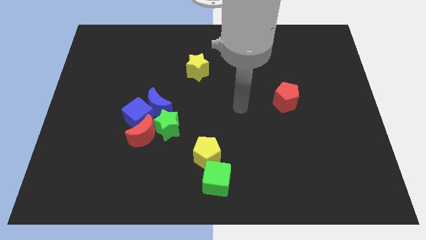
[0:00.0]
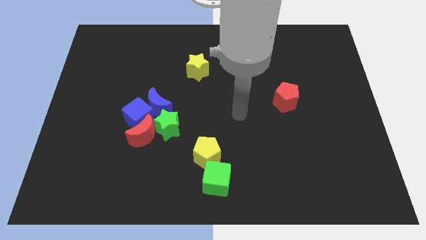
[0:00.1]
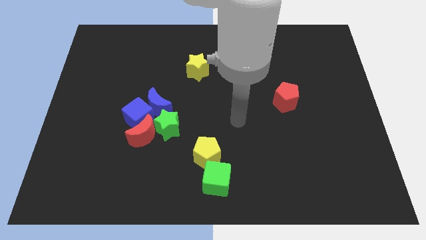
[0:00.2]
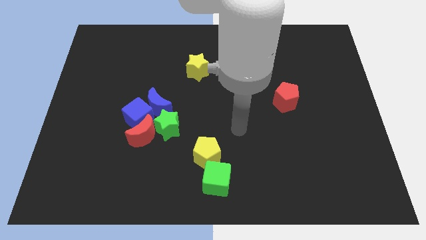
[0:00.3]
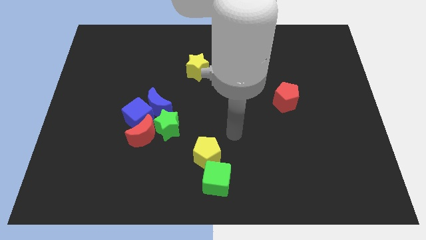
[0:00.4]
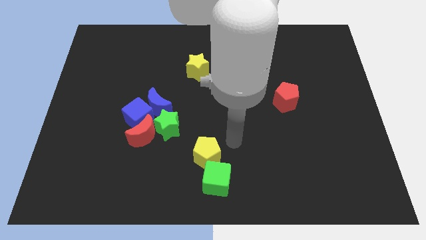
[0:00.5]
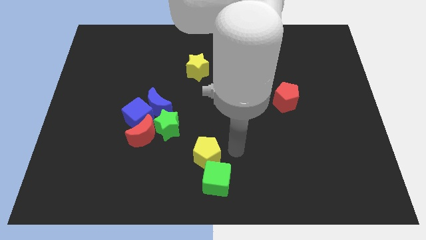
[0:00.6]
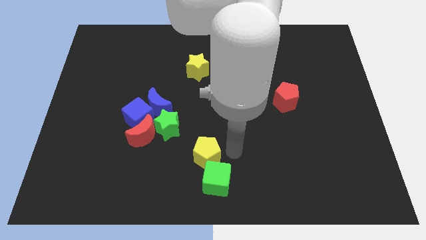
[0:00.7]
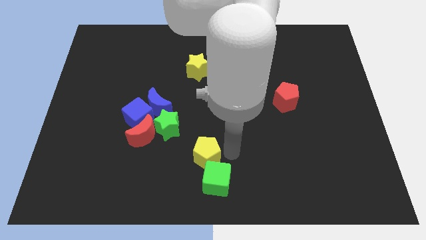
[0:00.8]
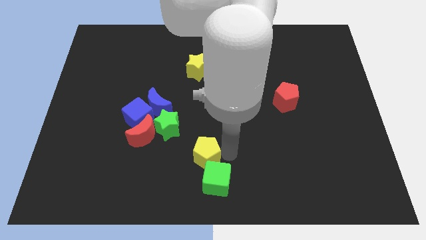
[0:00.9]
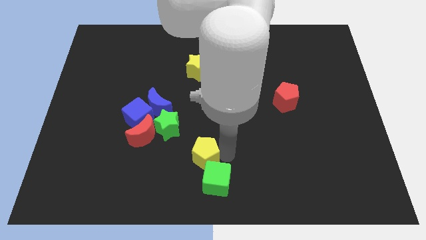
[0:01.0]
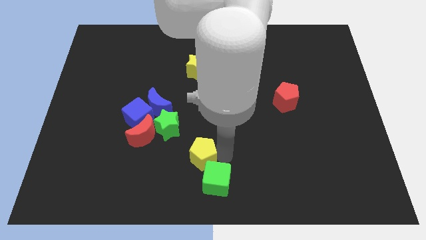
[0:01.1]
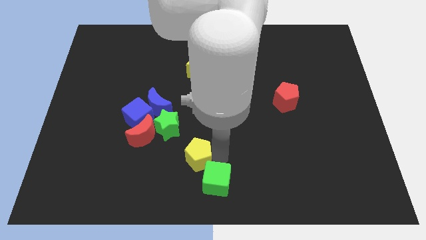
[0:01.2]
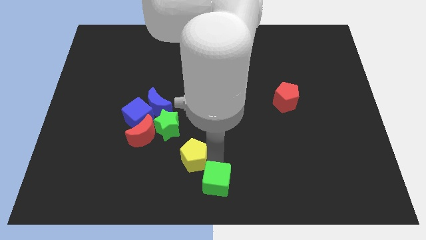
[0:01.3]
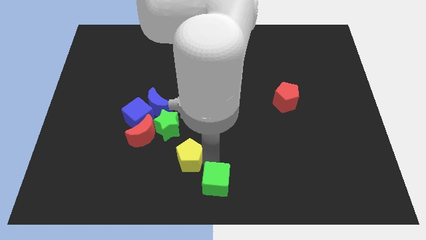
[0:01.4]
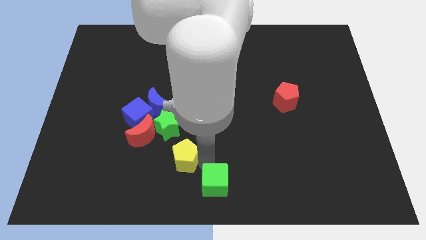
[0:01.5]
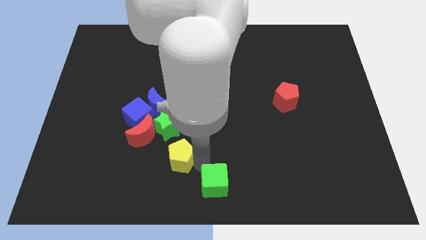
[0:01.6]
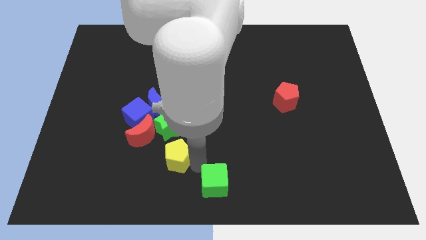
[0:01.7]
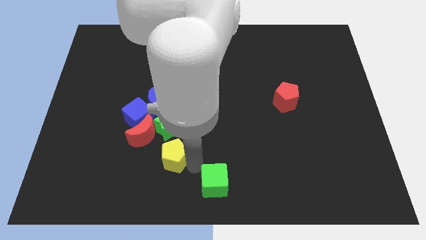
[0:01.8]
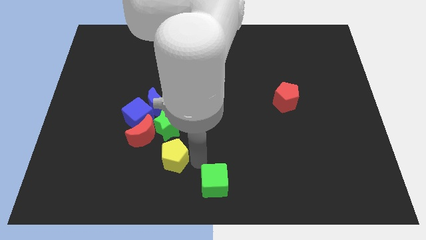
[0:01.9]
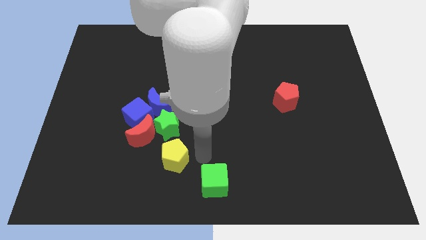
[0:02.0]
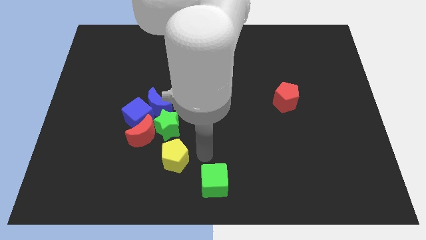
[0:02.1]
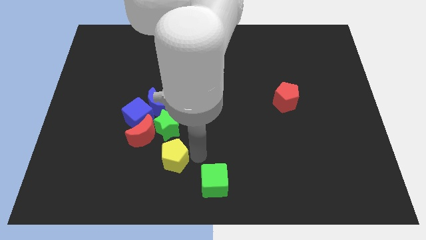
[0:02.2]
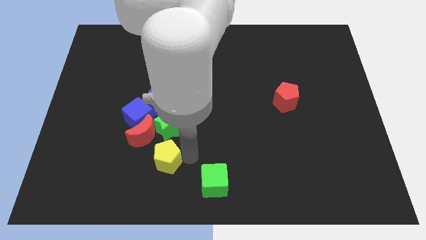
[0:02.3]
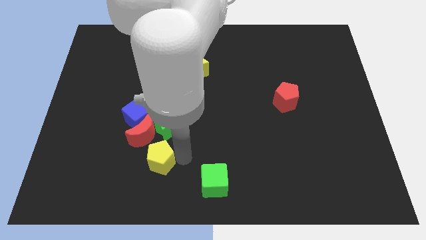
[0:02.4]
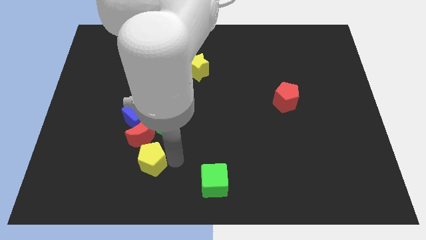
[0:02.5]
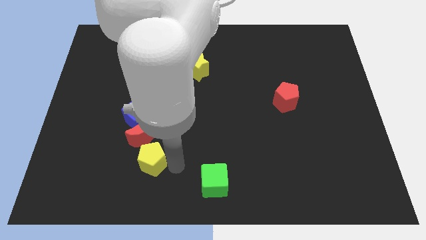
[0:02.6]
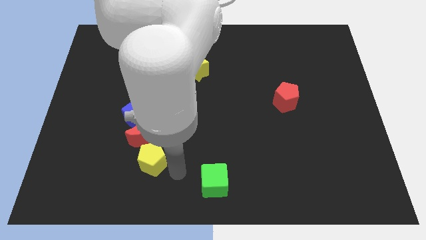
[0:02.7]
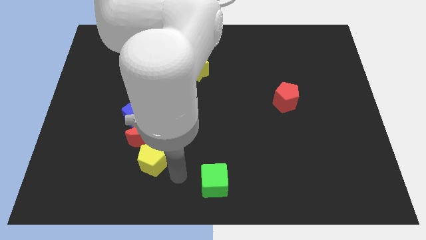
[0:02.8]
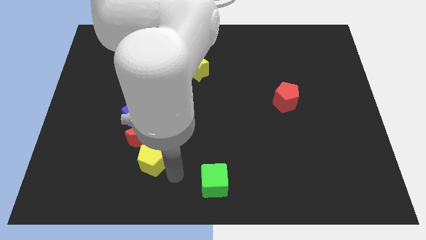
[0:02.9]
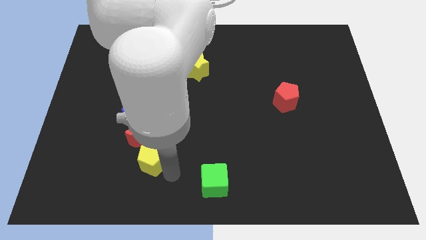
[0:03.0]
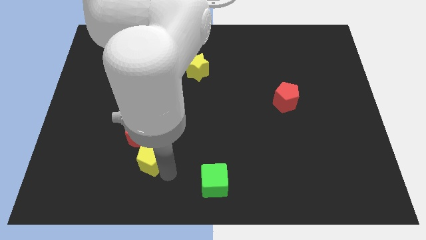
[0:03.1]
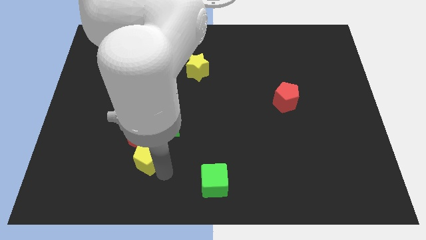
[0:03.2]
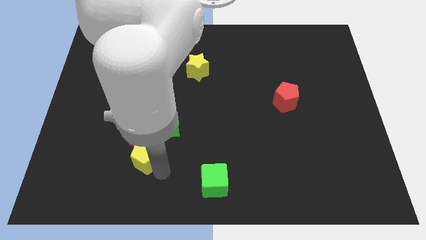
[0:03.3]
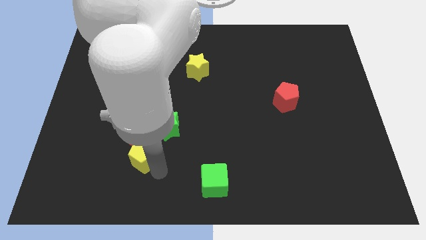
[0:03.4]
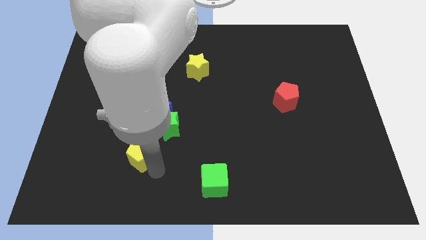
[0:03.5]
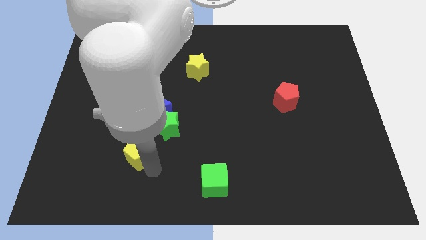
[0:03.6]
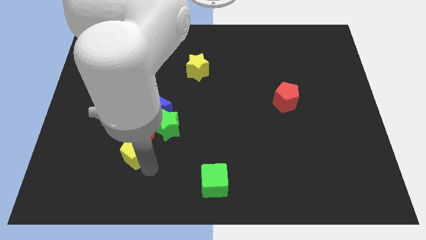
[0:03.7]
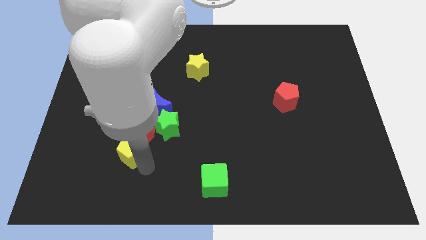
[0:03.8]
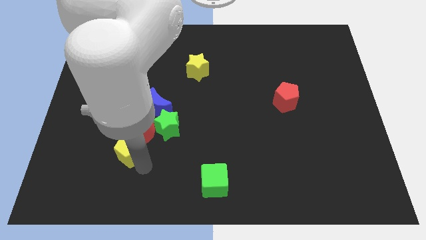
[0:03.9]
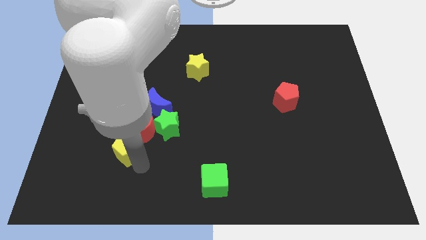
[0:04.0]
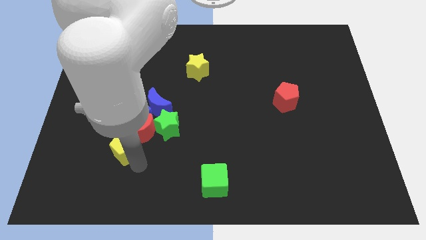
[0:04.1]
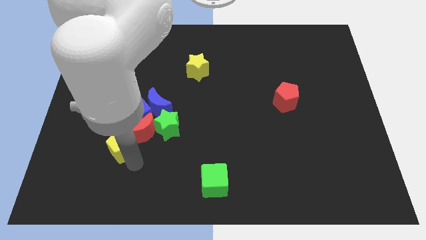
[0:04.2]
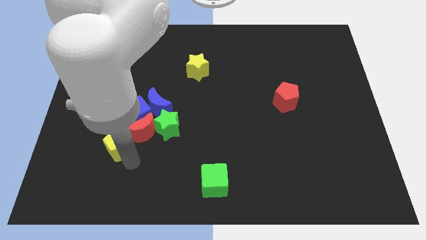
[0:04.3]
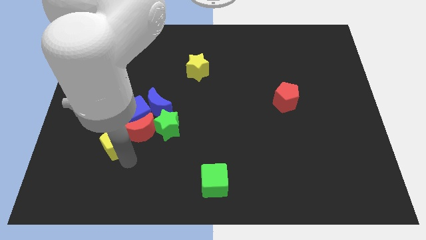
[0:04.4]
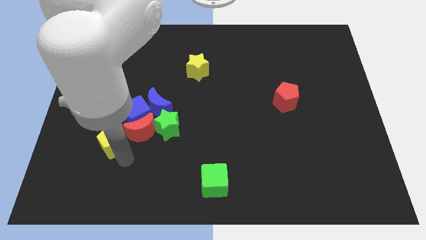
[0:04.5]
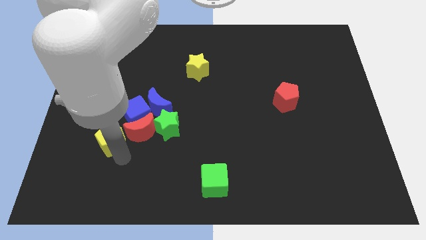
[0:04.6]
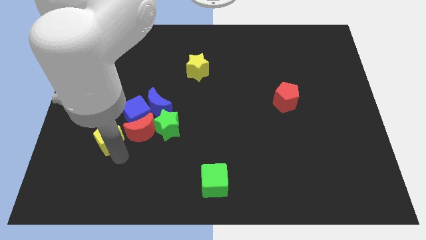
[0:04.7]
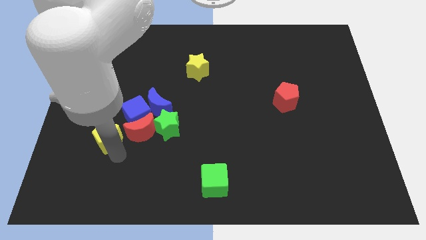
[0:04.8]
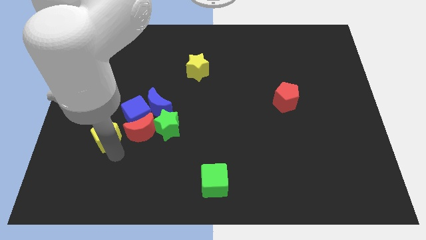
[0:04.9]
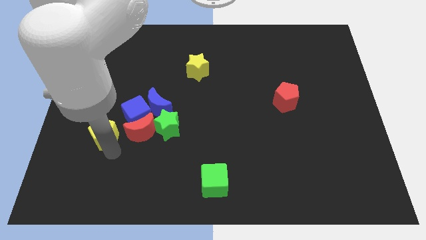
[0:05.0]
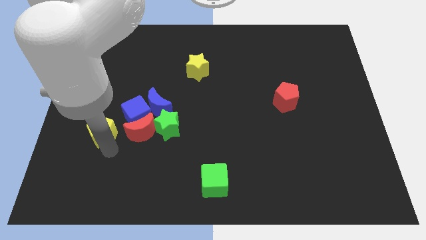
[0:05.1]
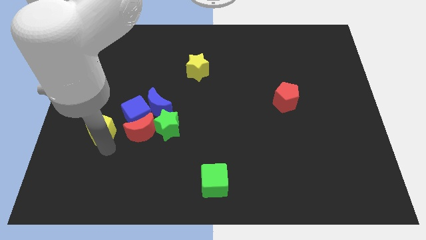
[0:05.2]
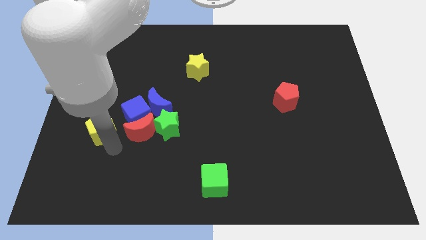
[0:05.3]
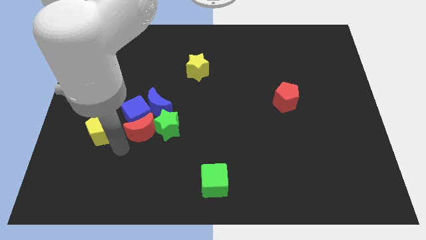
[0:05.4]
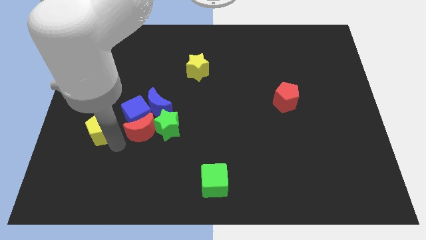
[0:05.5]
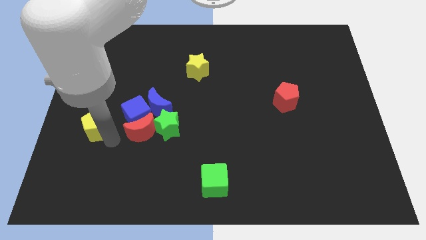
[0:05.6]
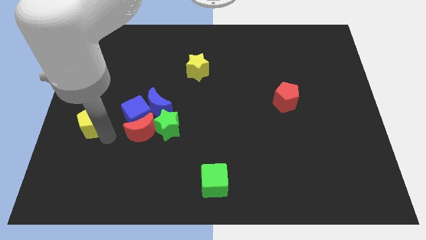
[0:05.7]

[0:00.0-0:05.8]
push the yellow pentagon to the center left

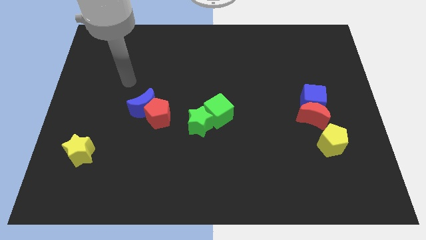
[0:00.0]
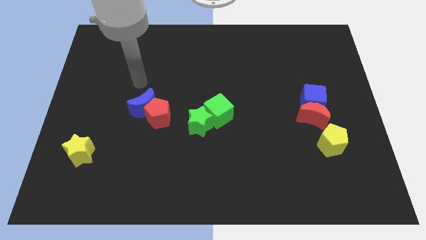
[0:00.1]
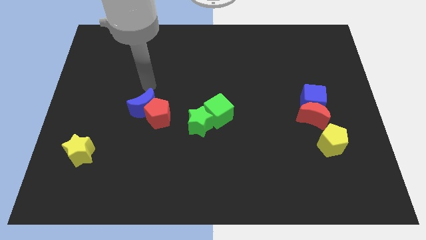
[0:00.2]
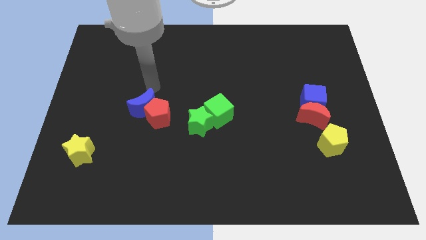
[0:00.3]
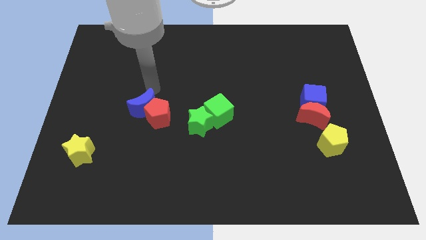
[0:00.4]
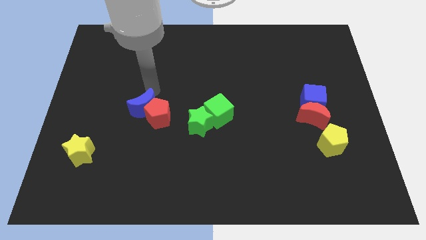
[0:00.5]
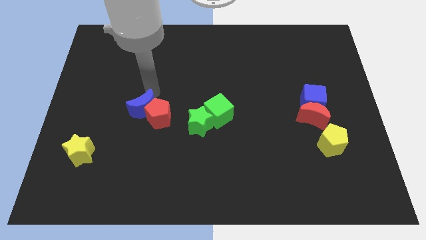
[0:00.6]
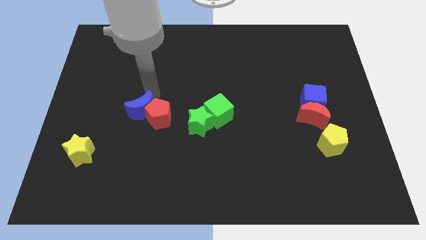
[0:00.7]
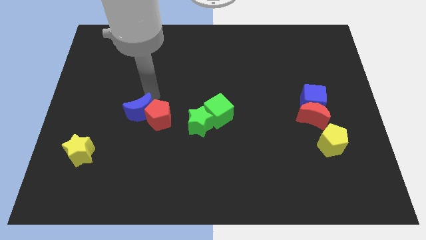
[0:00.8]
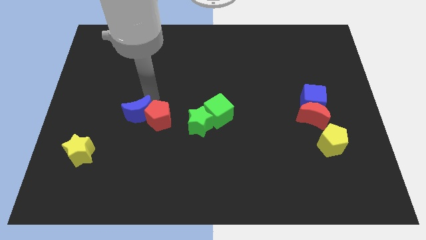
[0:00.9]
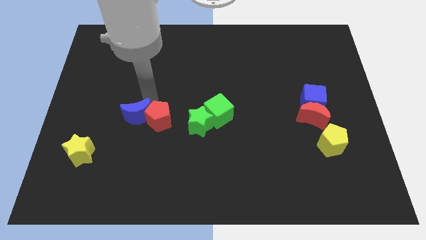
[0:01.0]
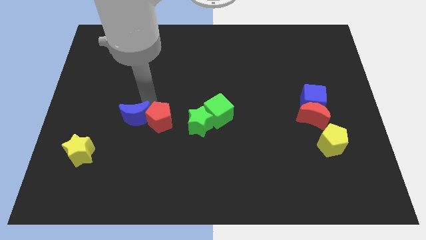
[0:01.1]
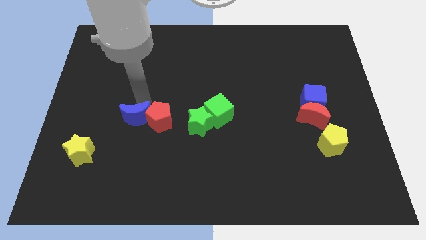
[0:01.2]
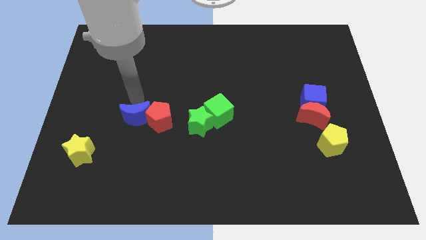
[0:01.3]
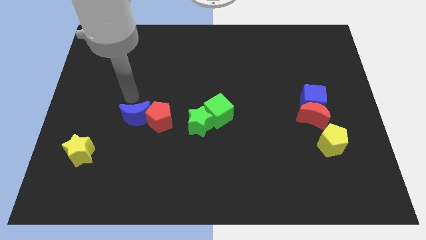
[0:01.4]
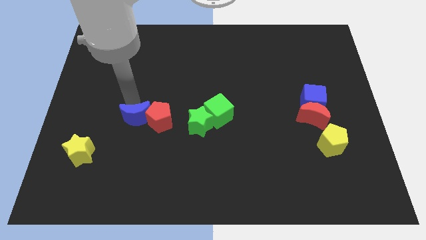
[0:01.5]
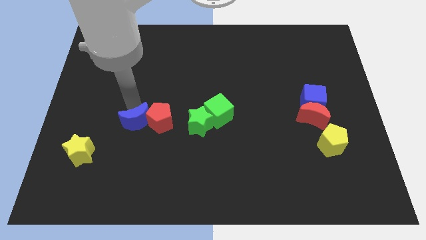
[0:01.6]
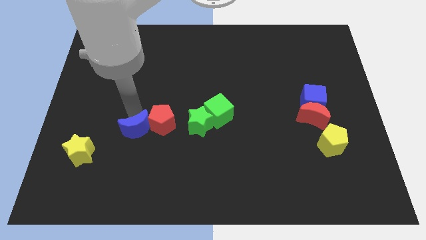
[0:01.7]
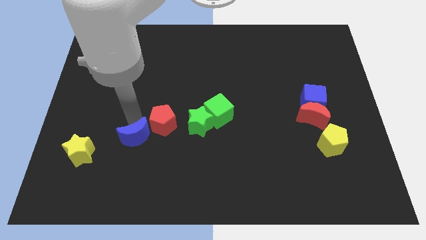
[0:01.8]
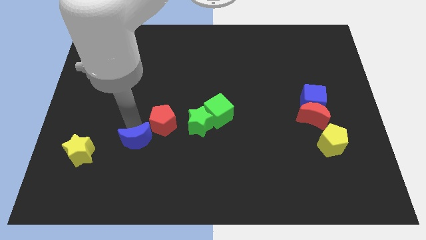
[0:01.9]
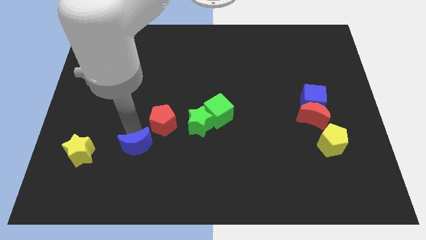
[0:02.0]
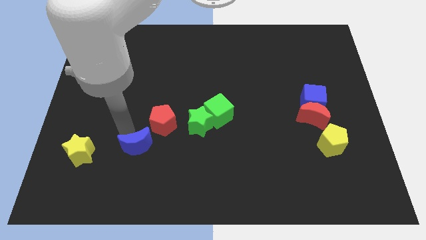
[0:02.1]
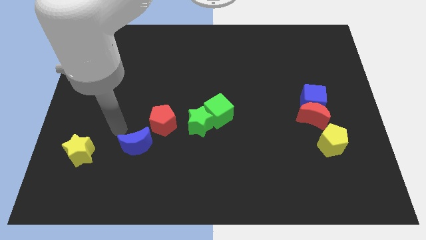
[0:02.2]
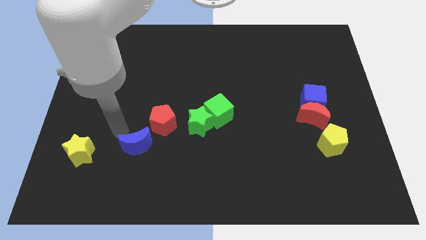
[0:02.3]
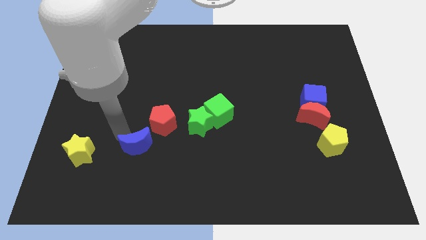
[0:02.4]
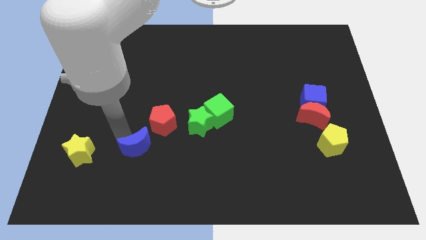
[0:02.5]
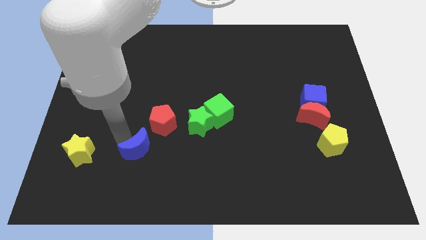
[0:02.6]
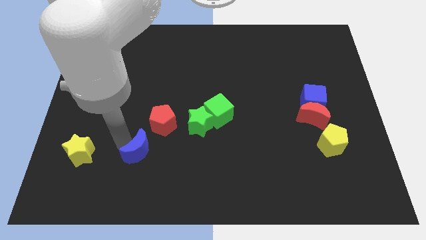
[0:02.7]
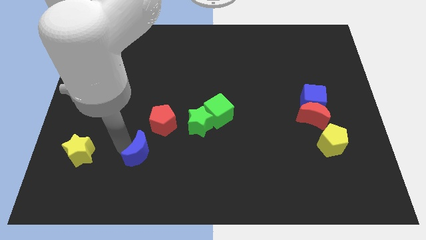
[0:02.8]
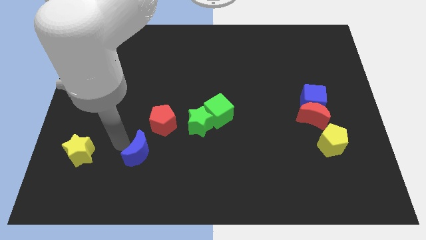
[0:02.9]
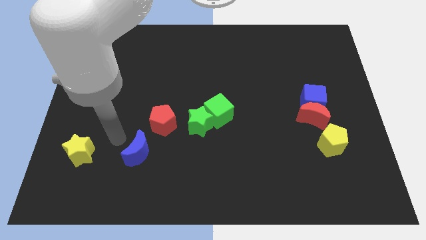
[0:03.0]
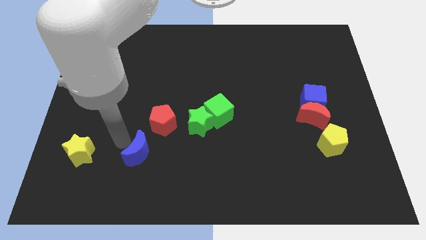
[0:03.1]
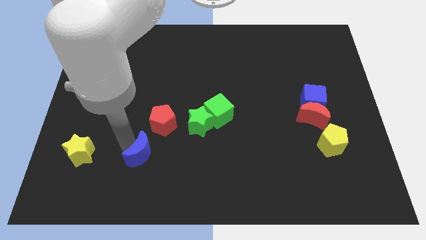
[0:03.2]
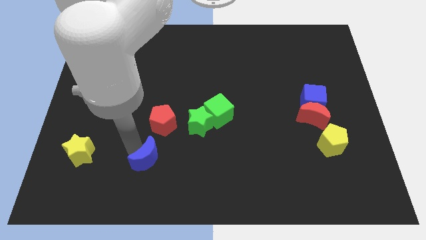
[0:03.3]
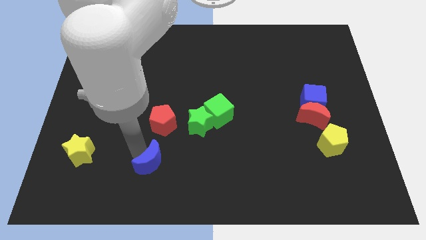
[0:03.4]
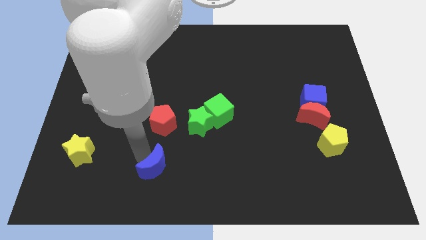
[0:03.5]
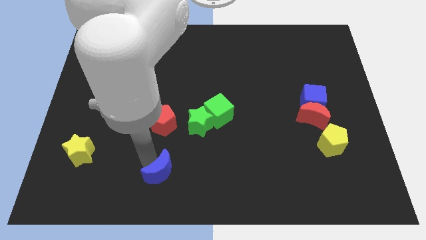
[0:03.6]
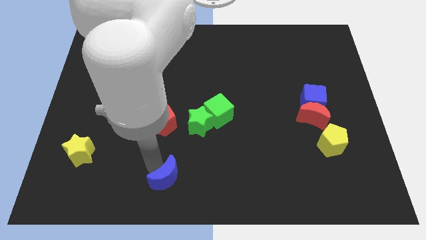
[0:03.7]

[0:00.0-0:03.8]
put the blue moon to the bottom
